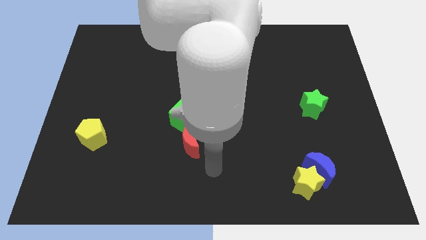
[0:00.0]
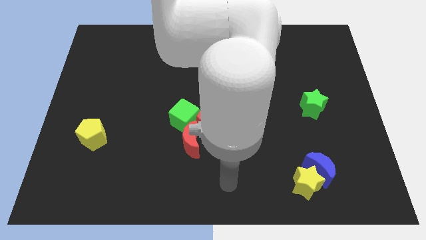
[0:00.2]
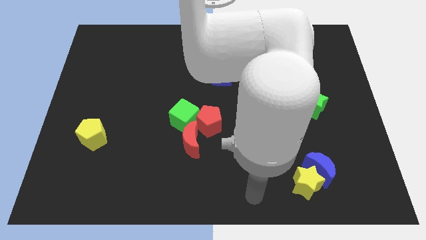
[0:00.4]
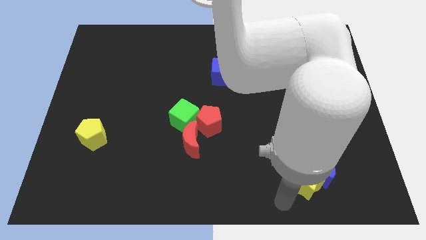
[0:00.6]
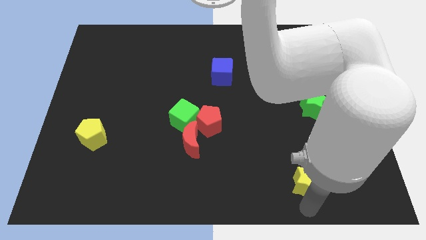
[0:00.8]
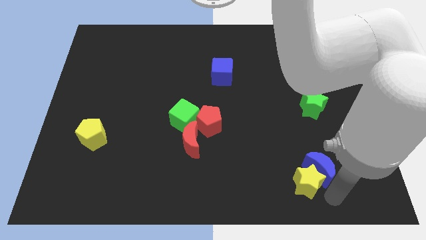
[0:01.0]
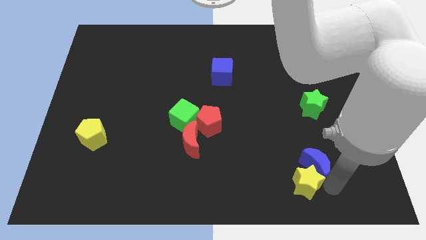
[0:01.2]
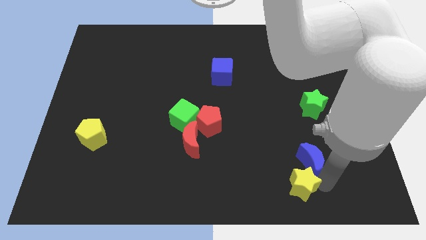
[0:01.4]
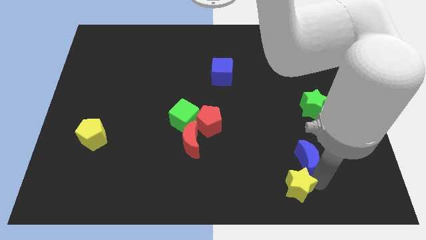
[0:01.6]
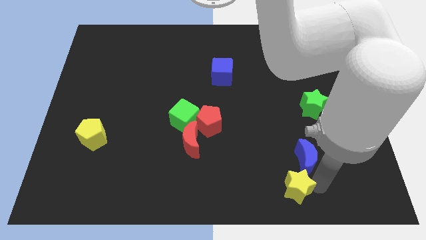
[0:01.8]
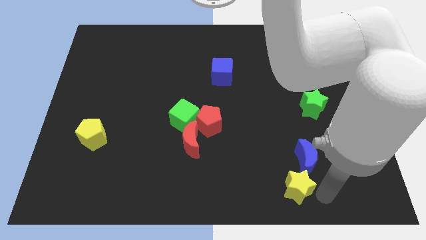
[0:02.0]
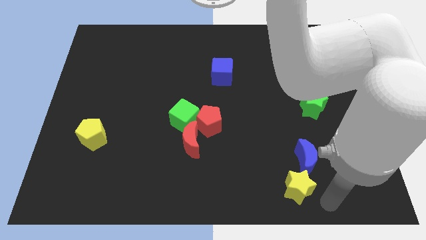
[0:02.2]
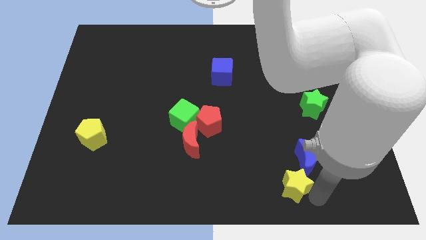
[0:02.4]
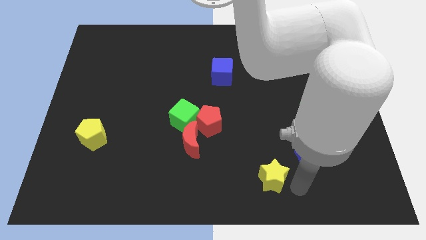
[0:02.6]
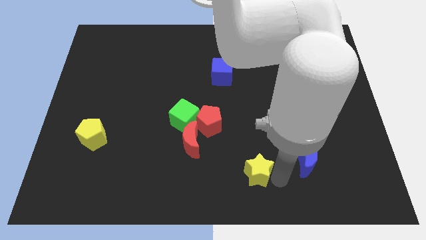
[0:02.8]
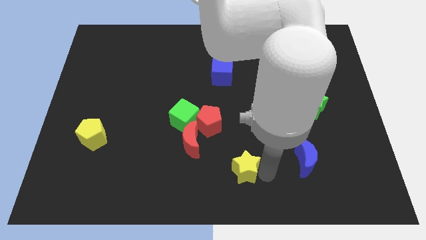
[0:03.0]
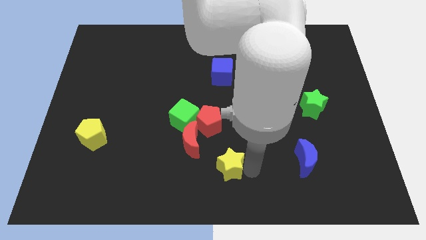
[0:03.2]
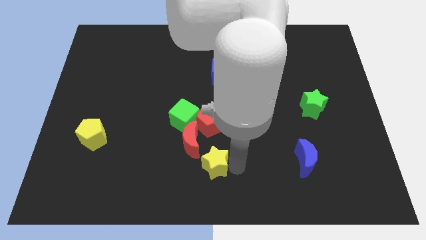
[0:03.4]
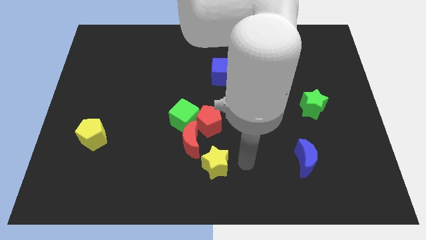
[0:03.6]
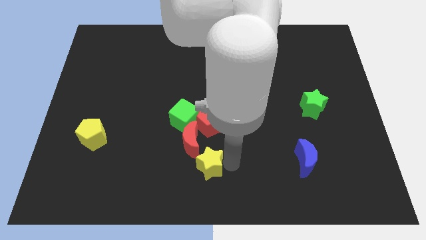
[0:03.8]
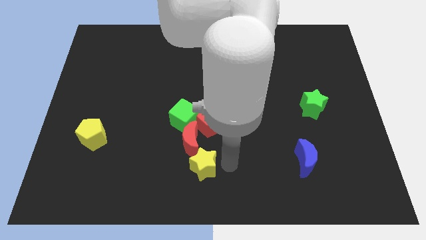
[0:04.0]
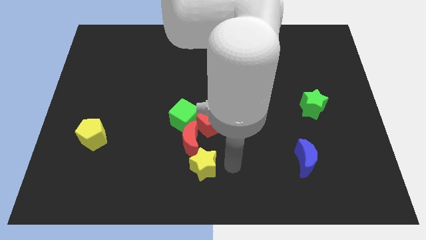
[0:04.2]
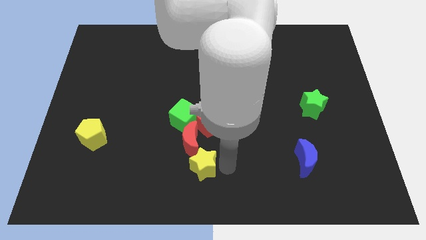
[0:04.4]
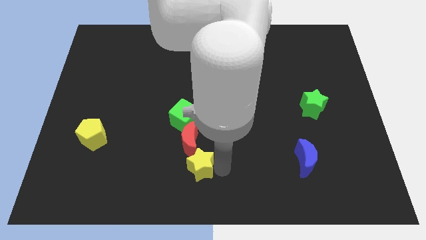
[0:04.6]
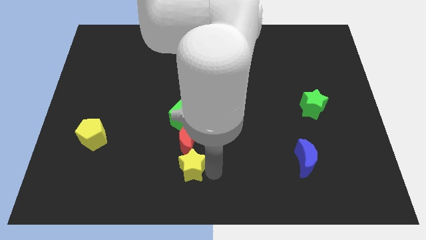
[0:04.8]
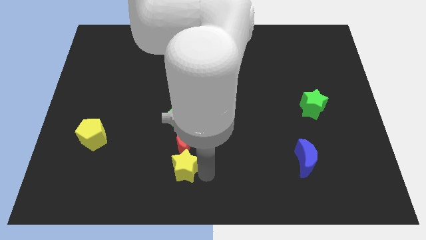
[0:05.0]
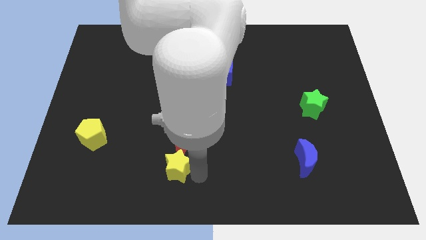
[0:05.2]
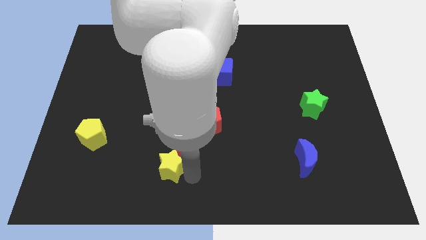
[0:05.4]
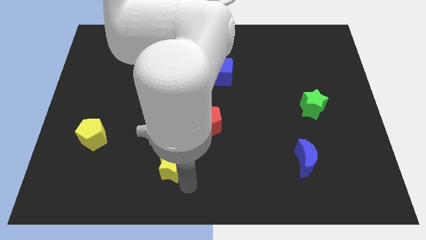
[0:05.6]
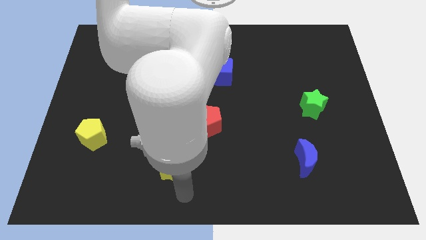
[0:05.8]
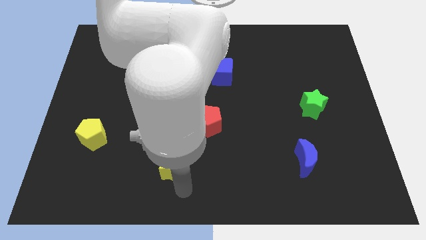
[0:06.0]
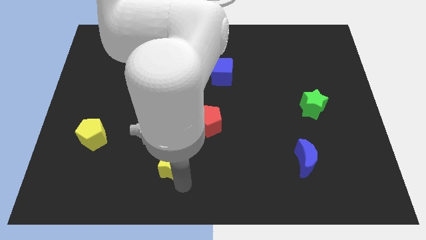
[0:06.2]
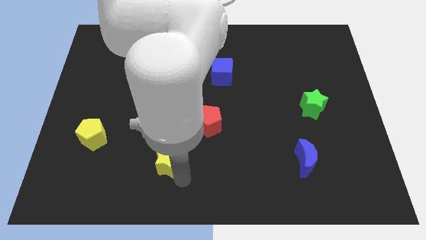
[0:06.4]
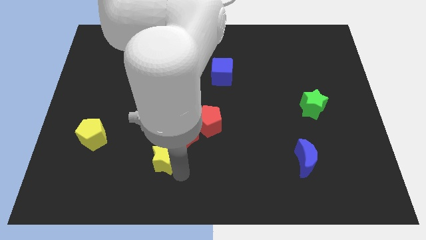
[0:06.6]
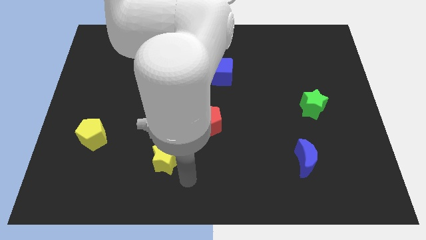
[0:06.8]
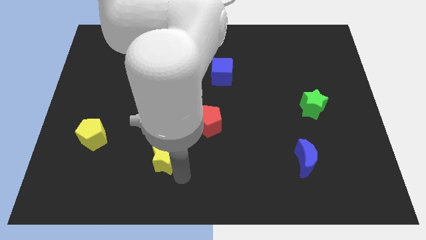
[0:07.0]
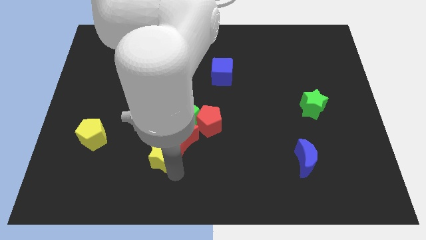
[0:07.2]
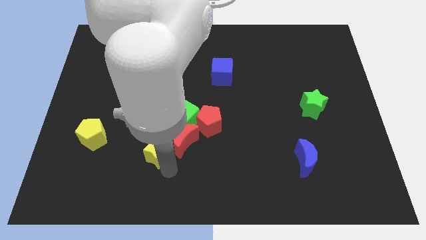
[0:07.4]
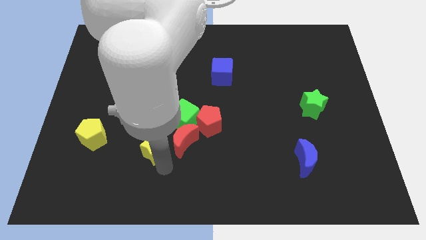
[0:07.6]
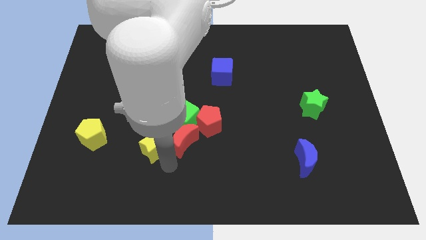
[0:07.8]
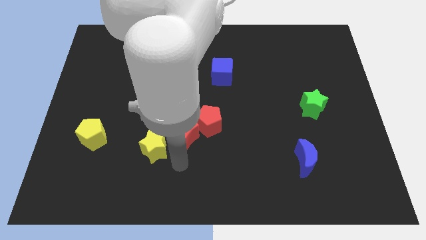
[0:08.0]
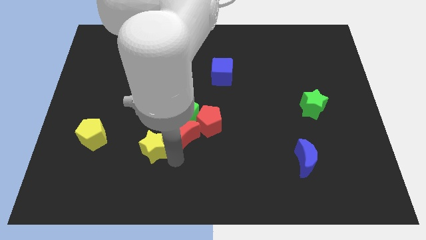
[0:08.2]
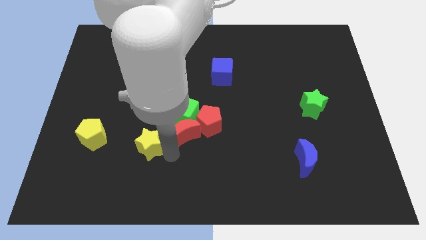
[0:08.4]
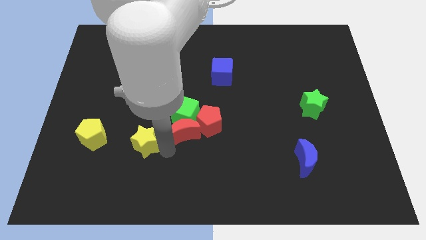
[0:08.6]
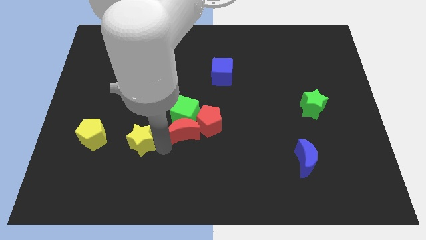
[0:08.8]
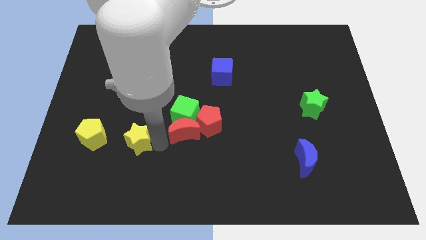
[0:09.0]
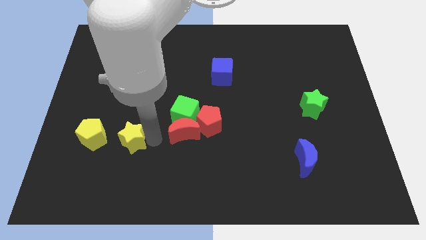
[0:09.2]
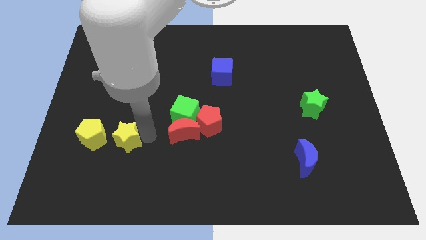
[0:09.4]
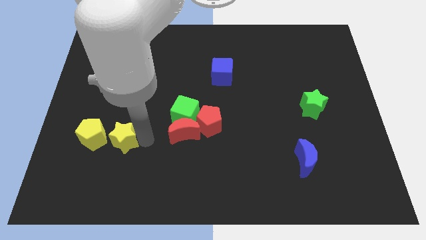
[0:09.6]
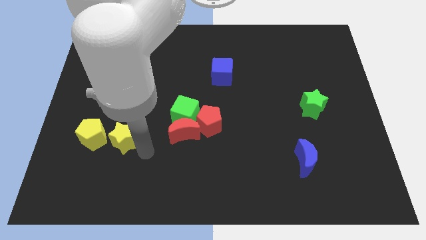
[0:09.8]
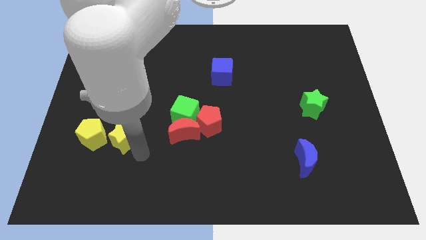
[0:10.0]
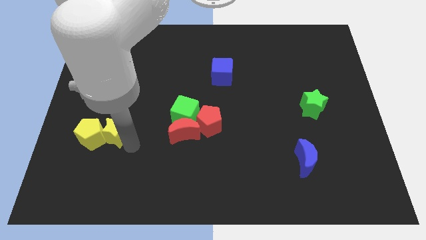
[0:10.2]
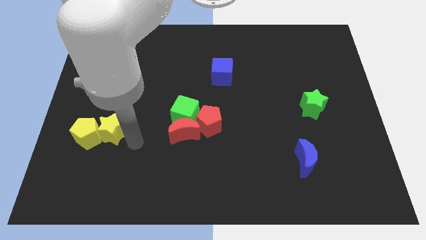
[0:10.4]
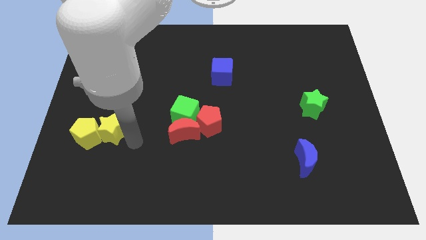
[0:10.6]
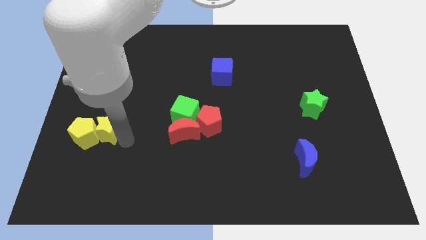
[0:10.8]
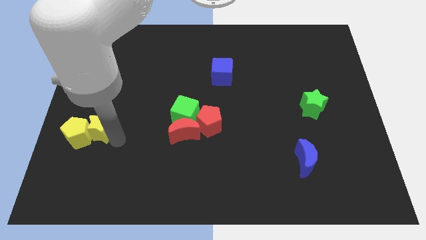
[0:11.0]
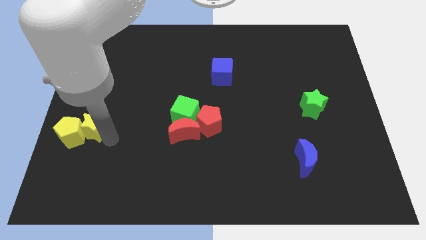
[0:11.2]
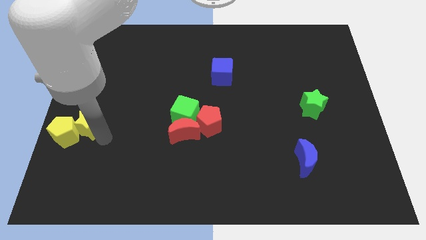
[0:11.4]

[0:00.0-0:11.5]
put the yellow star to the left side

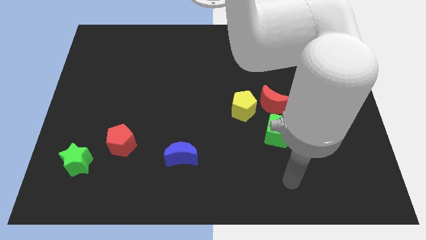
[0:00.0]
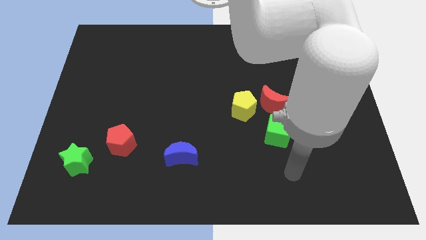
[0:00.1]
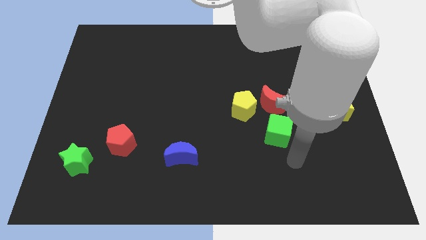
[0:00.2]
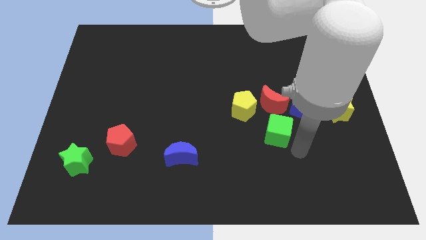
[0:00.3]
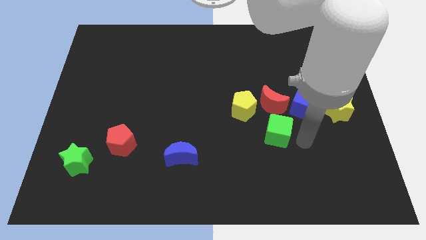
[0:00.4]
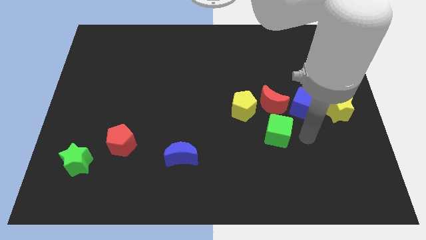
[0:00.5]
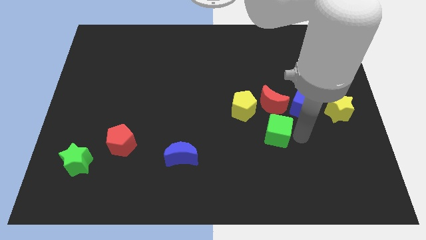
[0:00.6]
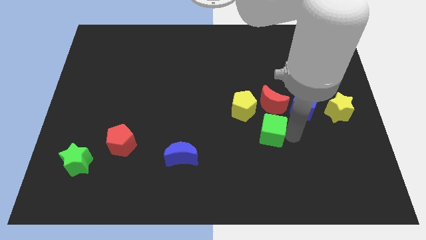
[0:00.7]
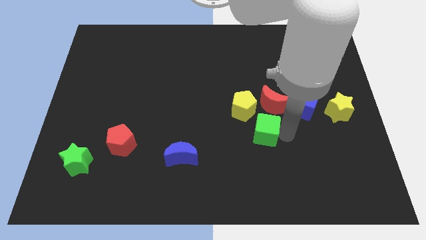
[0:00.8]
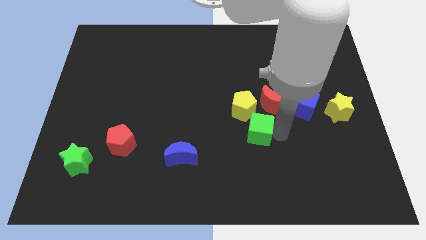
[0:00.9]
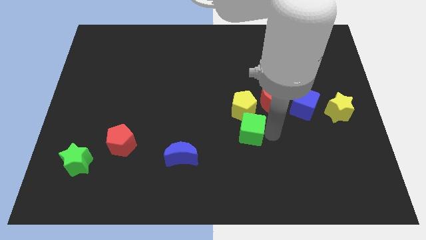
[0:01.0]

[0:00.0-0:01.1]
slide the green cube to the middle
